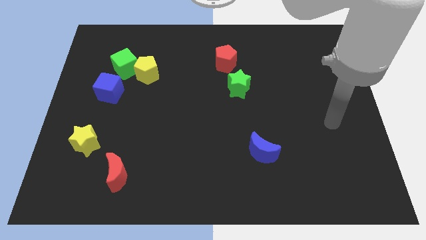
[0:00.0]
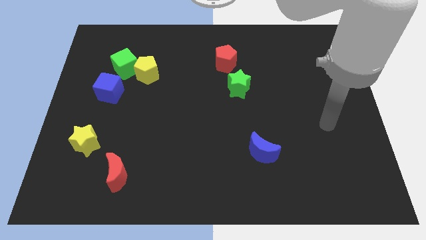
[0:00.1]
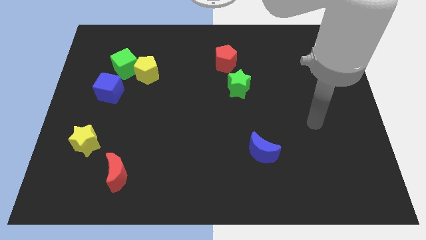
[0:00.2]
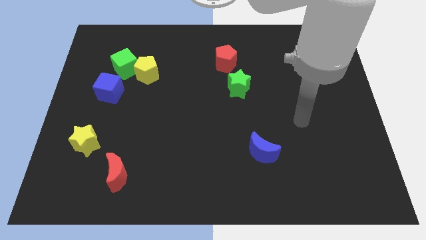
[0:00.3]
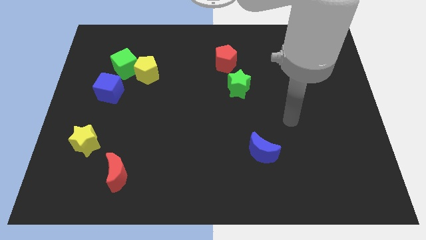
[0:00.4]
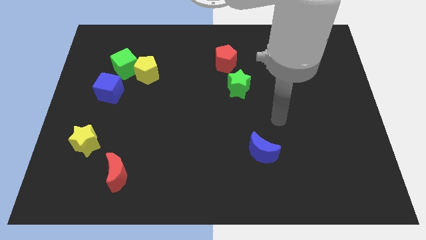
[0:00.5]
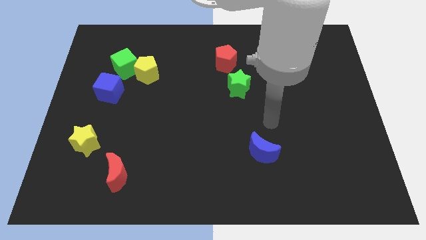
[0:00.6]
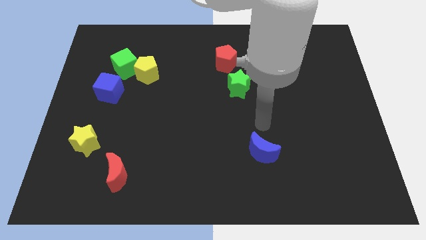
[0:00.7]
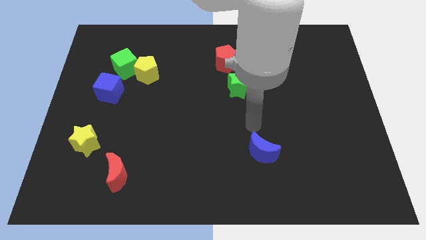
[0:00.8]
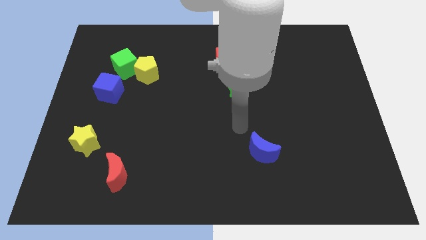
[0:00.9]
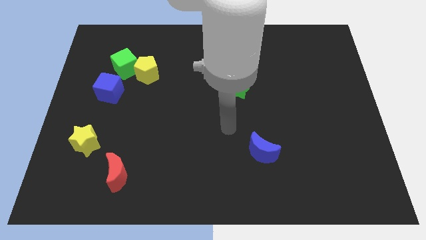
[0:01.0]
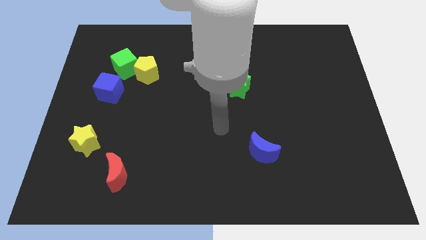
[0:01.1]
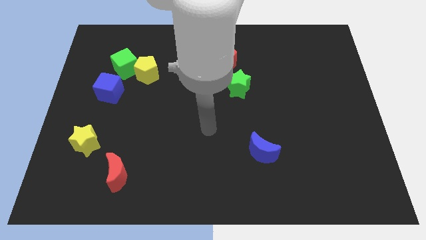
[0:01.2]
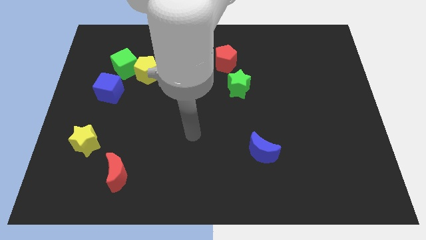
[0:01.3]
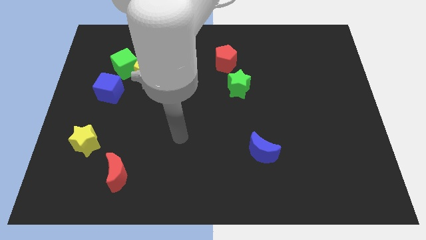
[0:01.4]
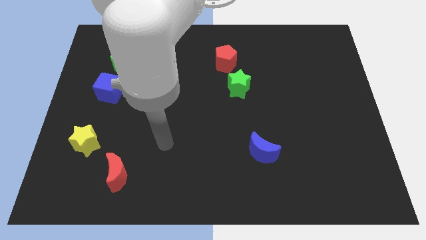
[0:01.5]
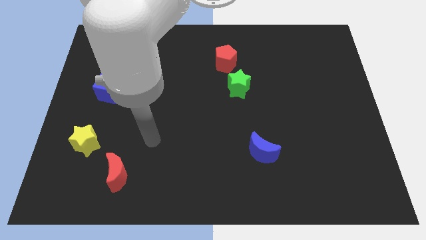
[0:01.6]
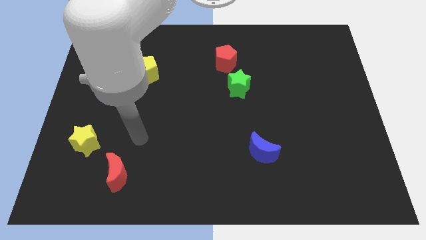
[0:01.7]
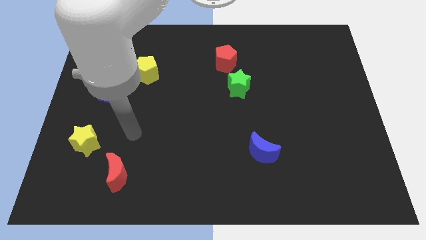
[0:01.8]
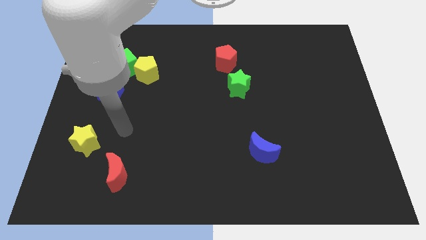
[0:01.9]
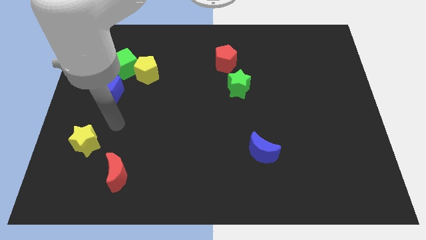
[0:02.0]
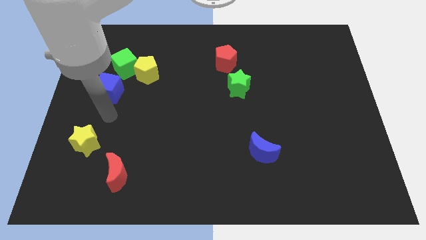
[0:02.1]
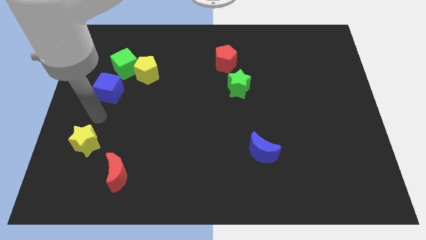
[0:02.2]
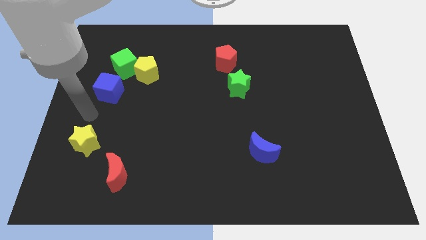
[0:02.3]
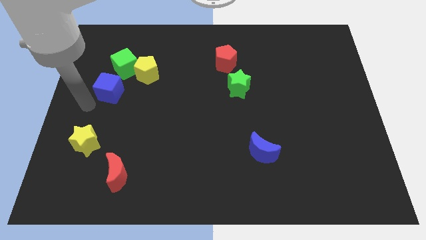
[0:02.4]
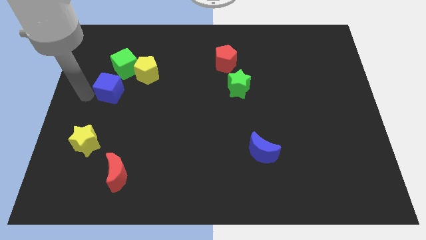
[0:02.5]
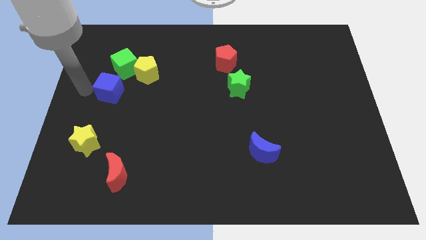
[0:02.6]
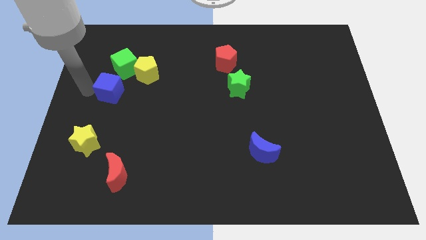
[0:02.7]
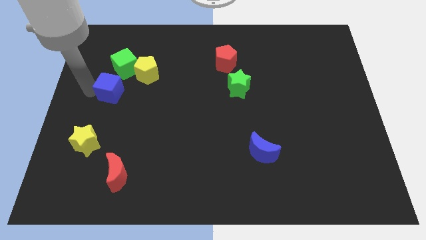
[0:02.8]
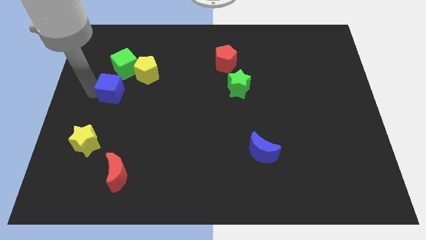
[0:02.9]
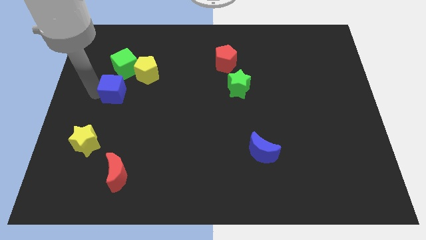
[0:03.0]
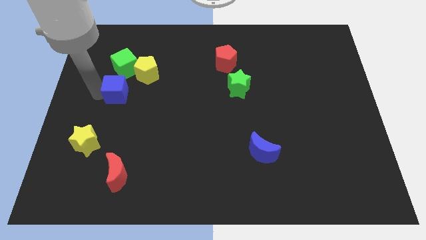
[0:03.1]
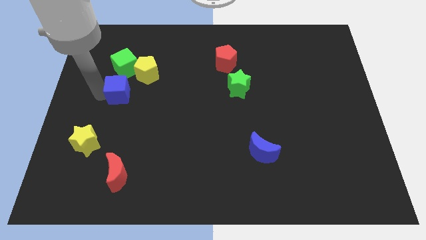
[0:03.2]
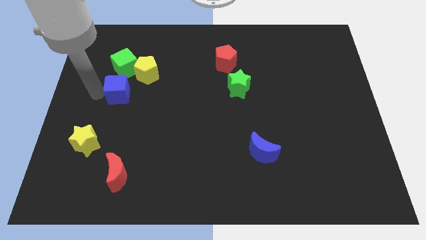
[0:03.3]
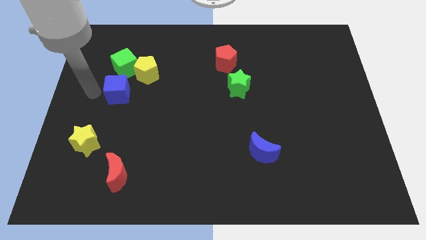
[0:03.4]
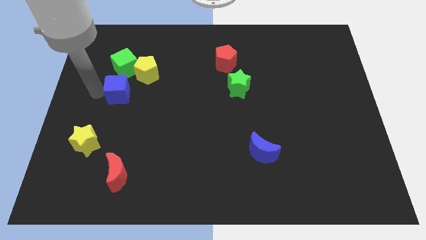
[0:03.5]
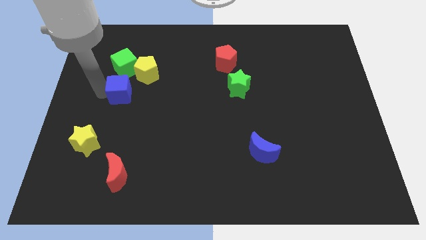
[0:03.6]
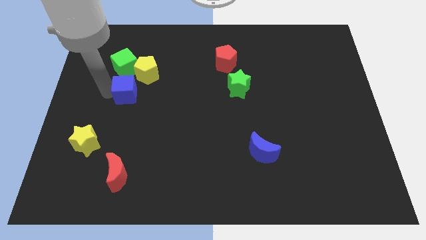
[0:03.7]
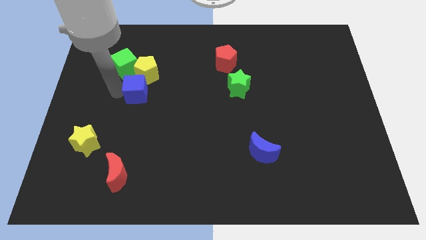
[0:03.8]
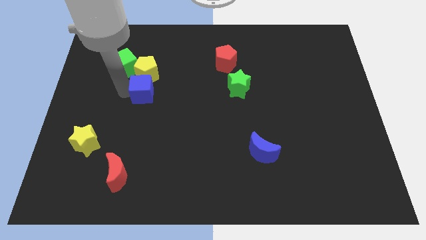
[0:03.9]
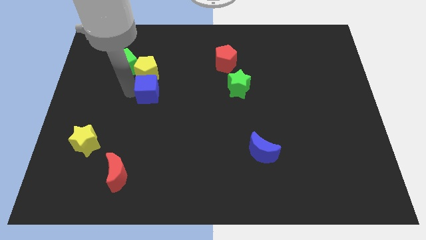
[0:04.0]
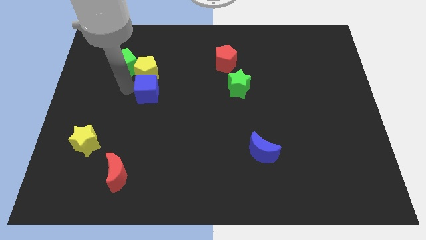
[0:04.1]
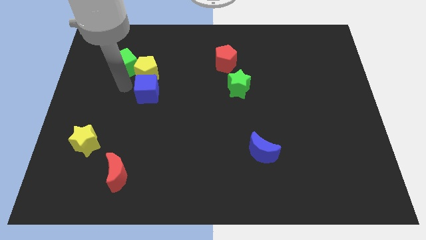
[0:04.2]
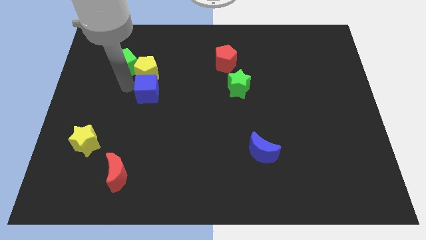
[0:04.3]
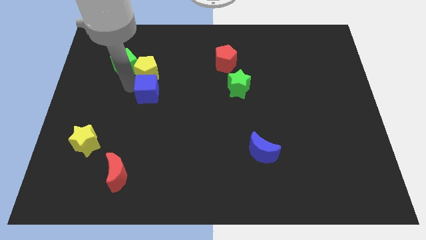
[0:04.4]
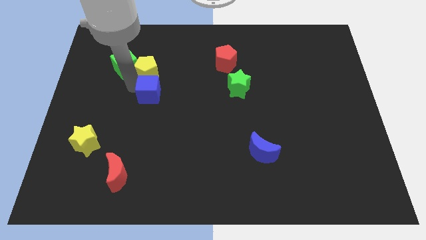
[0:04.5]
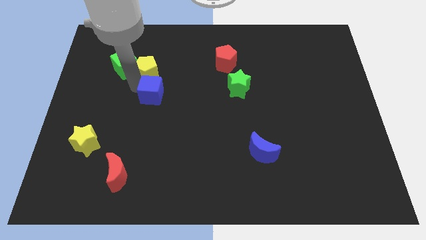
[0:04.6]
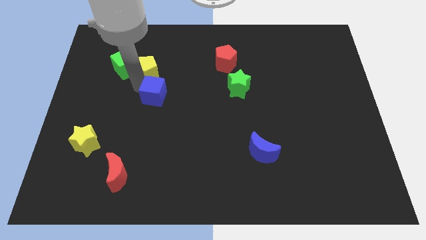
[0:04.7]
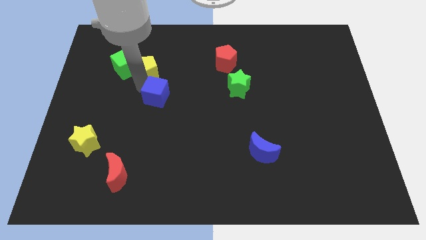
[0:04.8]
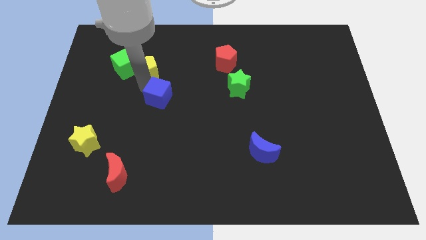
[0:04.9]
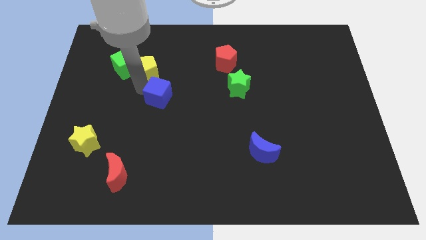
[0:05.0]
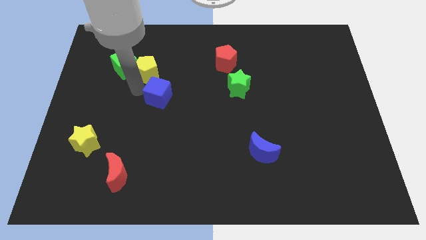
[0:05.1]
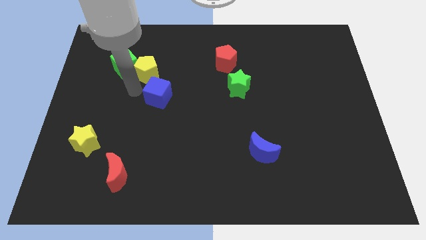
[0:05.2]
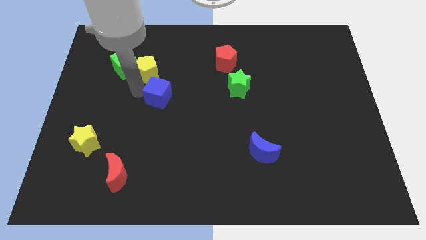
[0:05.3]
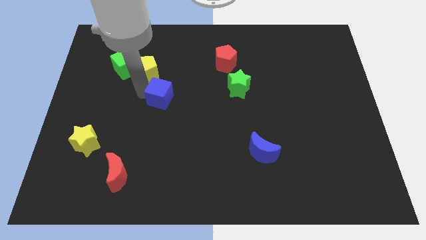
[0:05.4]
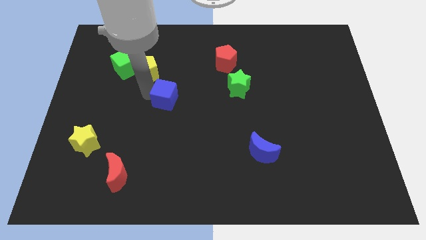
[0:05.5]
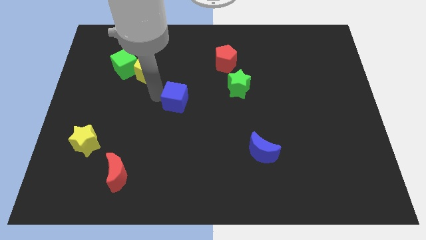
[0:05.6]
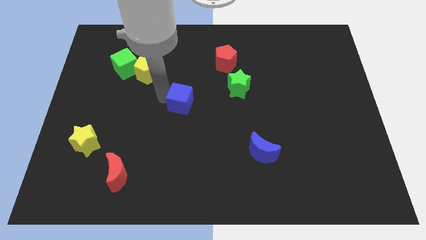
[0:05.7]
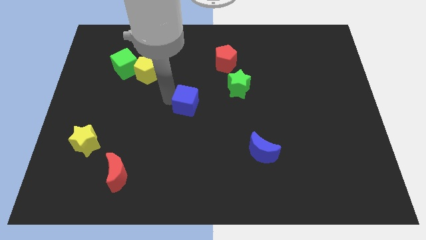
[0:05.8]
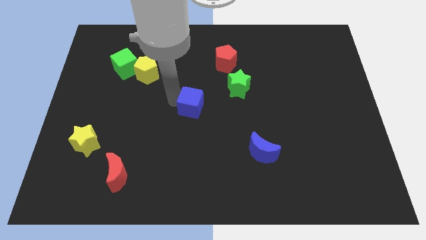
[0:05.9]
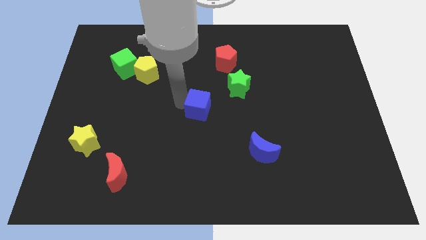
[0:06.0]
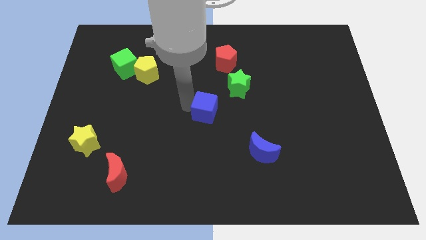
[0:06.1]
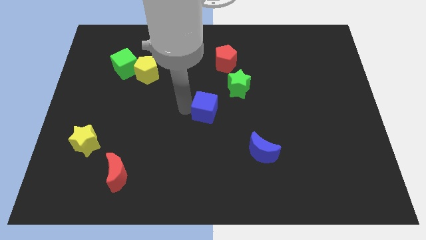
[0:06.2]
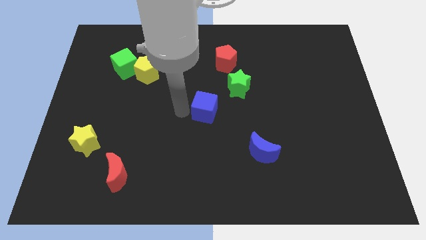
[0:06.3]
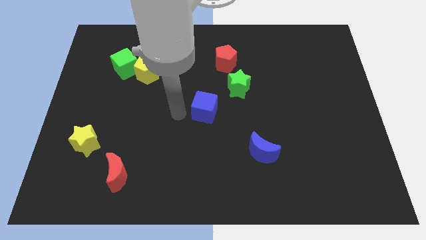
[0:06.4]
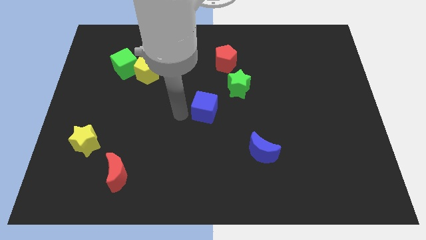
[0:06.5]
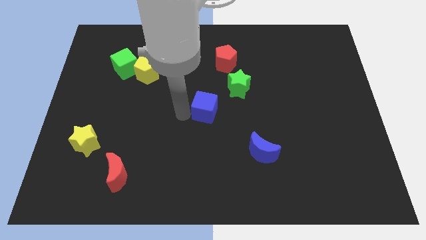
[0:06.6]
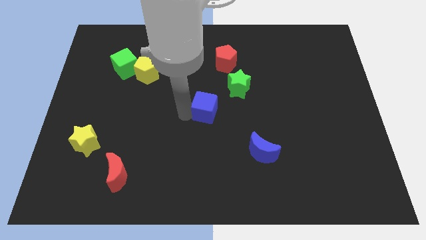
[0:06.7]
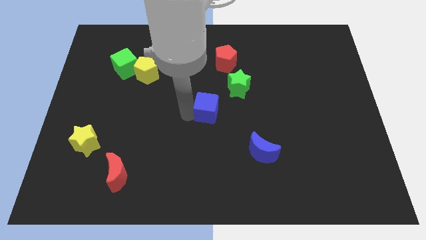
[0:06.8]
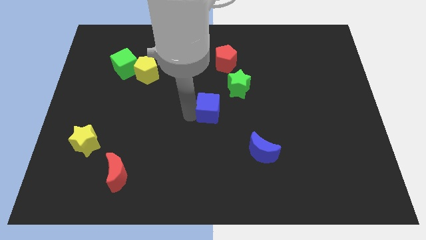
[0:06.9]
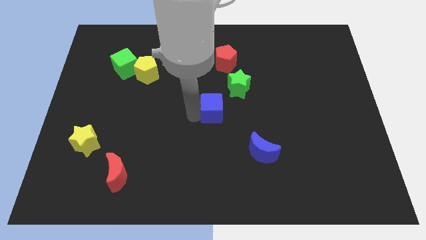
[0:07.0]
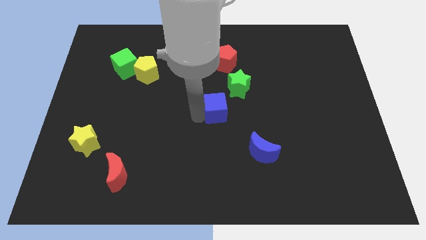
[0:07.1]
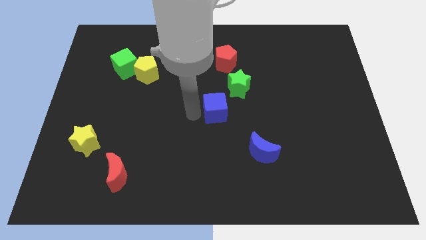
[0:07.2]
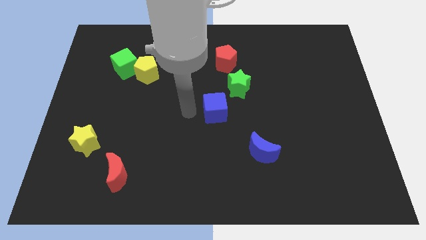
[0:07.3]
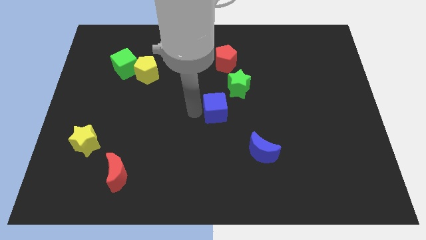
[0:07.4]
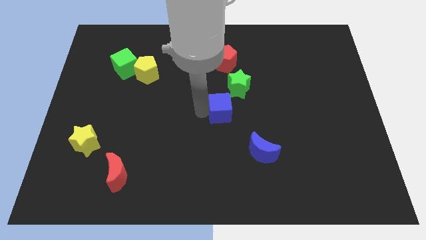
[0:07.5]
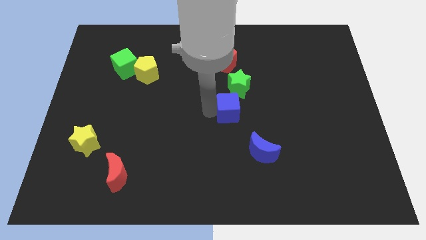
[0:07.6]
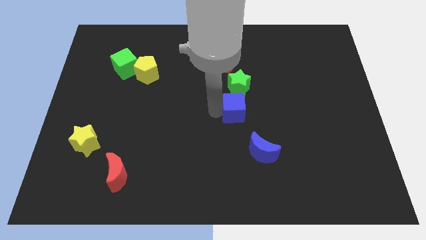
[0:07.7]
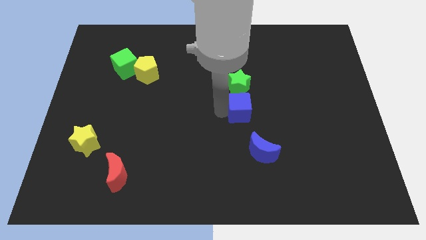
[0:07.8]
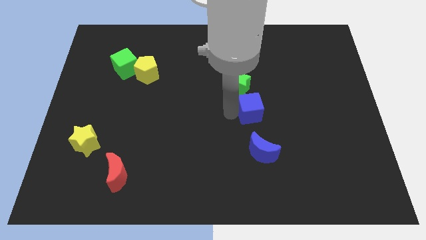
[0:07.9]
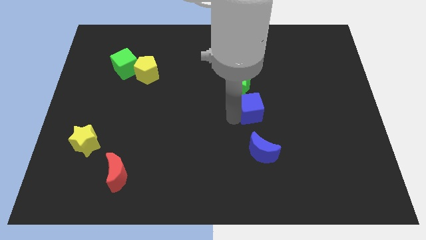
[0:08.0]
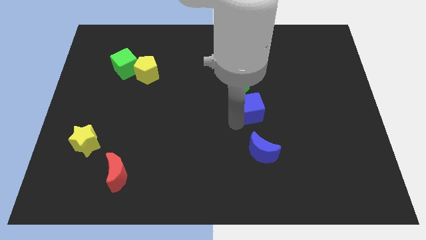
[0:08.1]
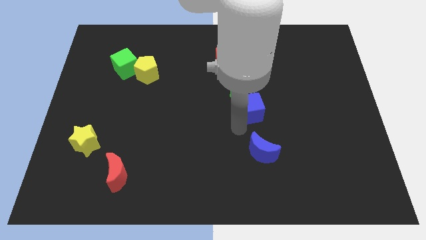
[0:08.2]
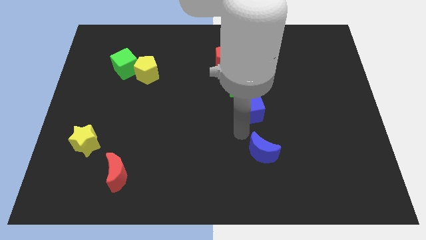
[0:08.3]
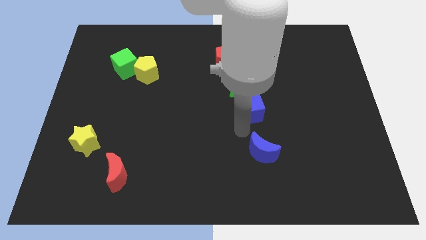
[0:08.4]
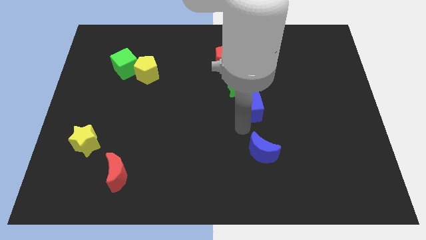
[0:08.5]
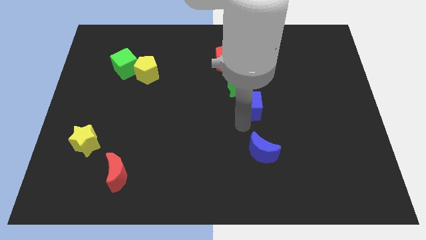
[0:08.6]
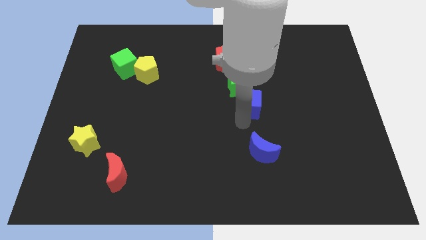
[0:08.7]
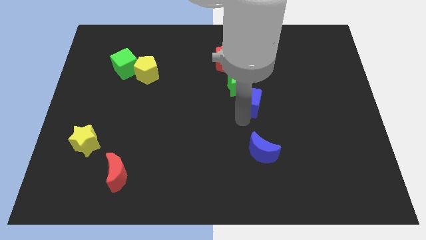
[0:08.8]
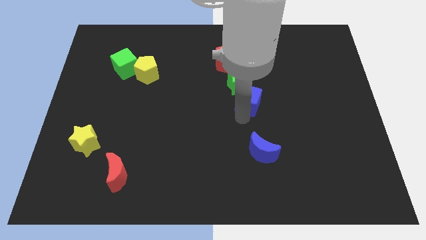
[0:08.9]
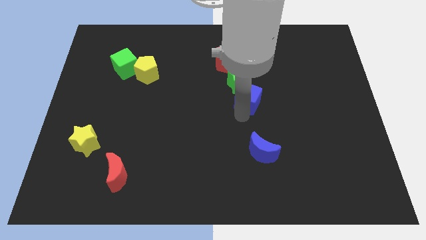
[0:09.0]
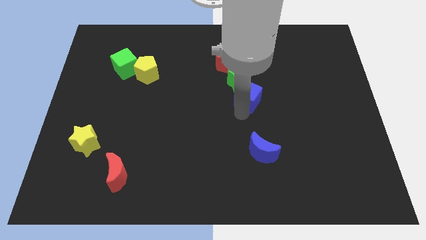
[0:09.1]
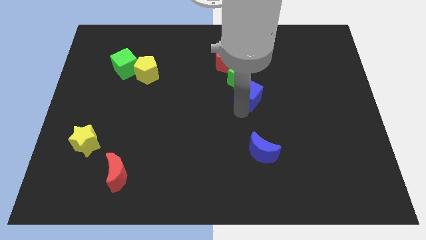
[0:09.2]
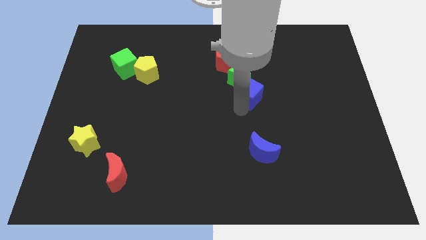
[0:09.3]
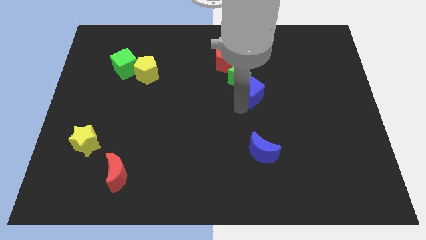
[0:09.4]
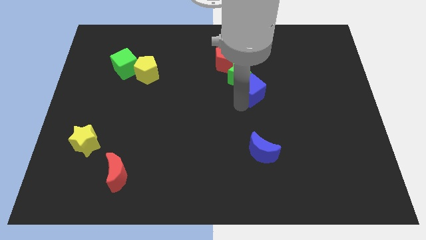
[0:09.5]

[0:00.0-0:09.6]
put the blue cube to the bottom right of the red pentagon
